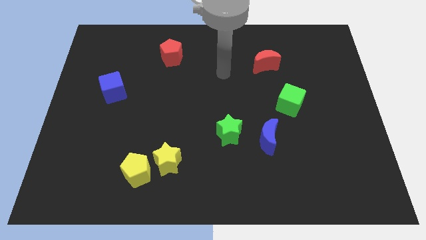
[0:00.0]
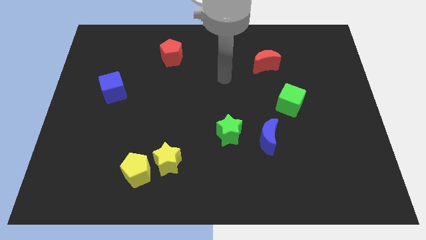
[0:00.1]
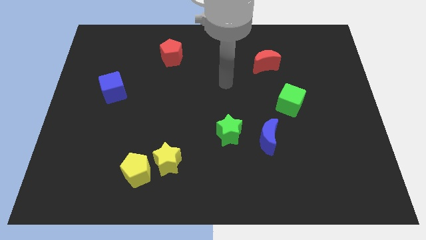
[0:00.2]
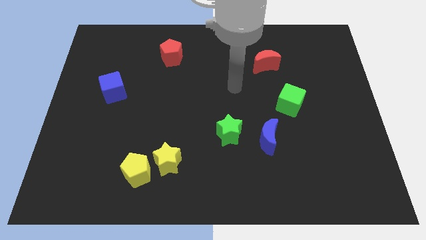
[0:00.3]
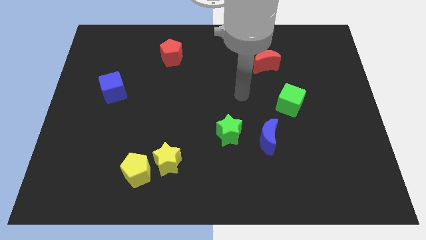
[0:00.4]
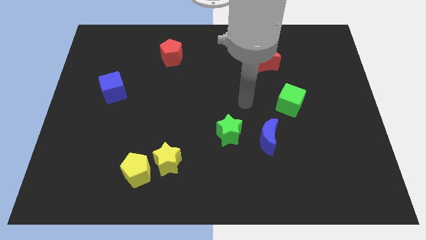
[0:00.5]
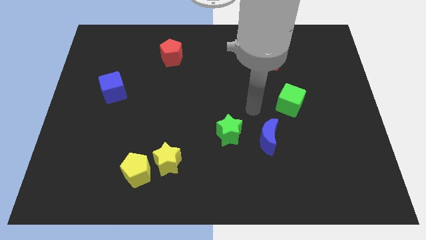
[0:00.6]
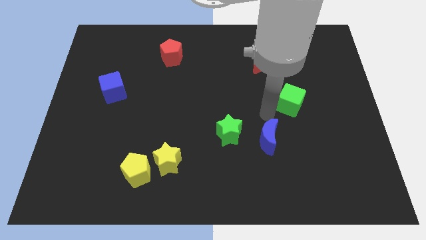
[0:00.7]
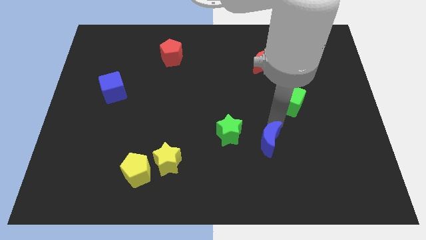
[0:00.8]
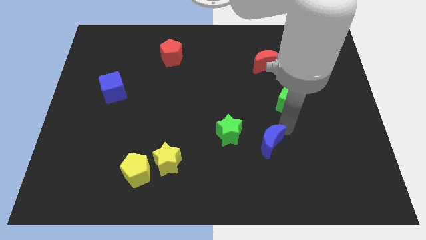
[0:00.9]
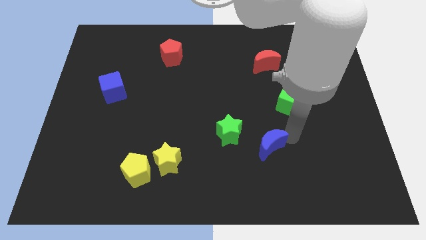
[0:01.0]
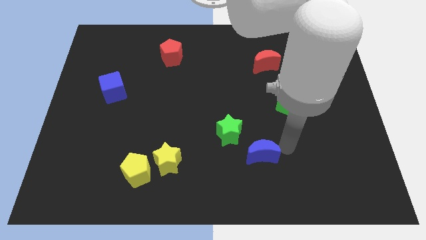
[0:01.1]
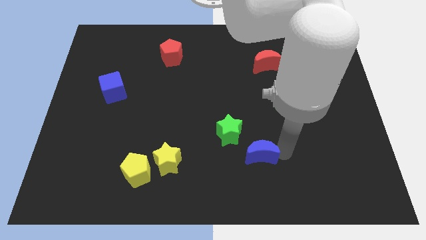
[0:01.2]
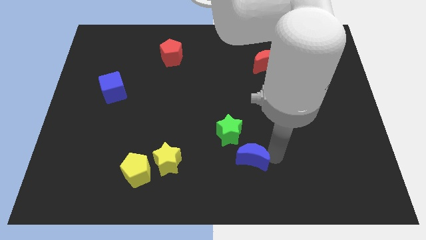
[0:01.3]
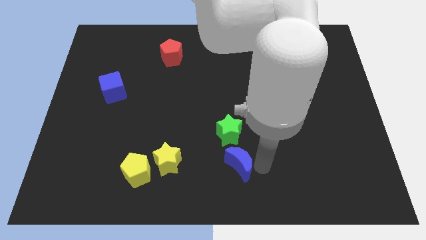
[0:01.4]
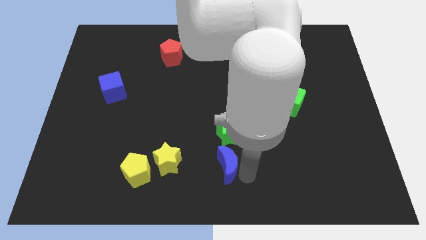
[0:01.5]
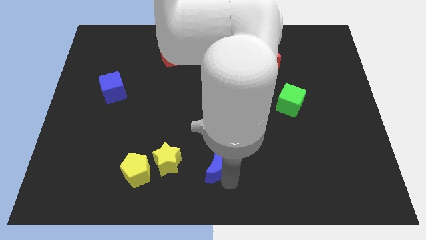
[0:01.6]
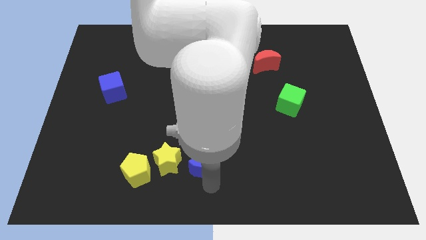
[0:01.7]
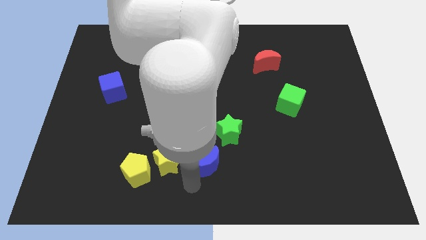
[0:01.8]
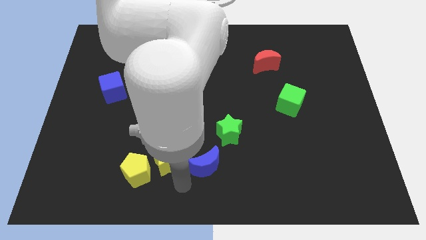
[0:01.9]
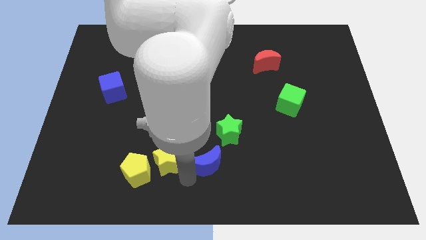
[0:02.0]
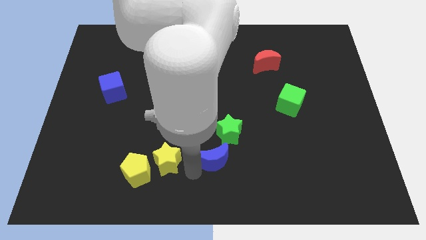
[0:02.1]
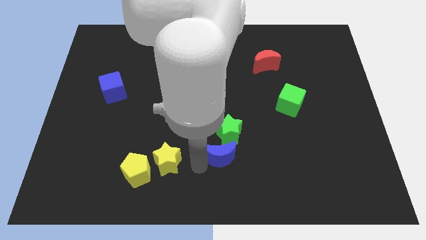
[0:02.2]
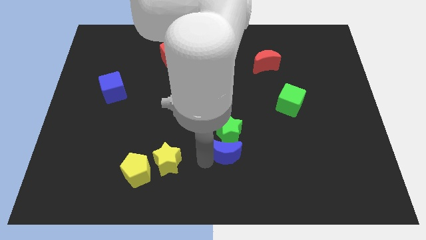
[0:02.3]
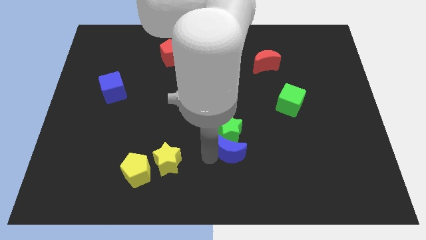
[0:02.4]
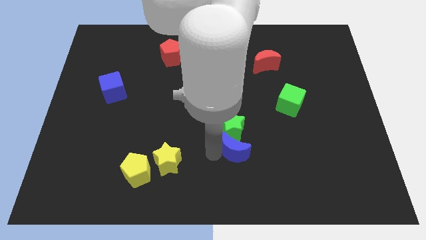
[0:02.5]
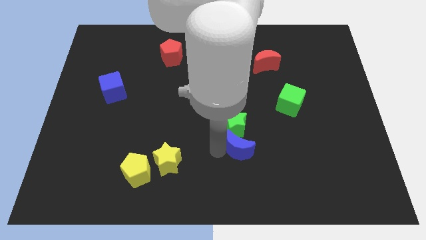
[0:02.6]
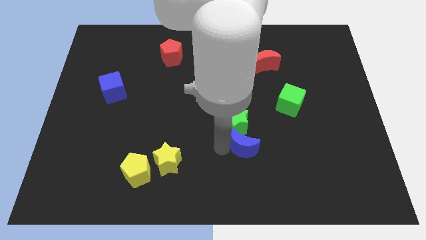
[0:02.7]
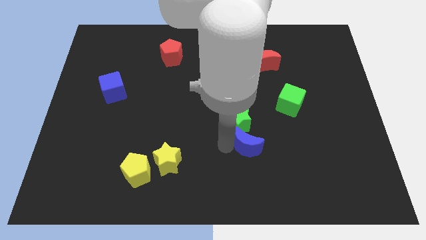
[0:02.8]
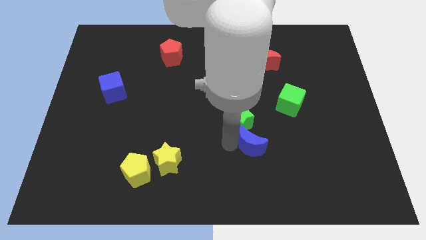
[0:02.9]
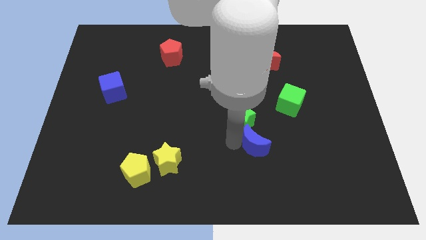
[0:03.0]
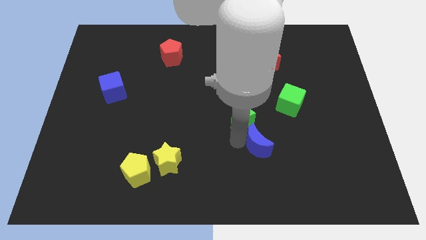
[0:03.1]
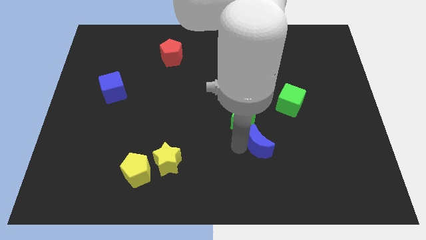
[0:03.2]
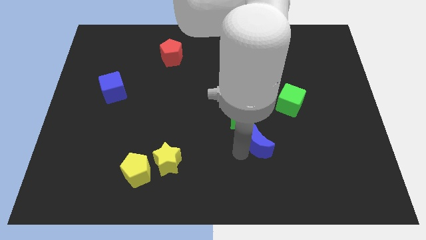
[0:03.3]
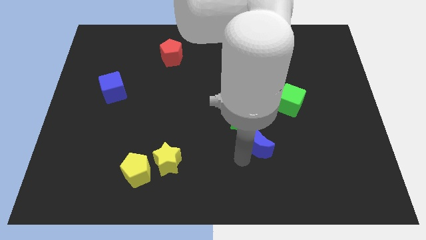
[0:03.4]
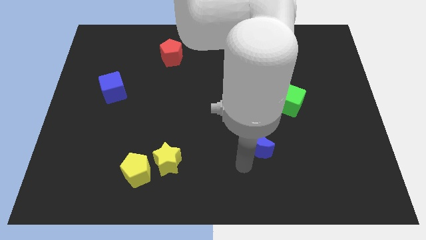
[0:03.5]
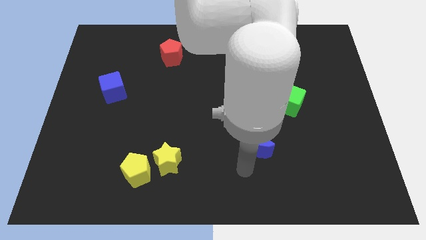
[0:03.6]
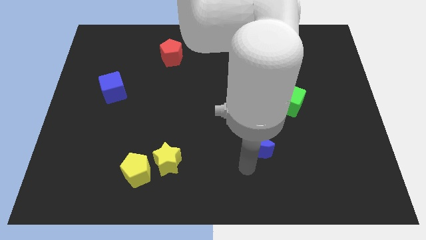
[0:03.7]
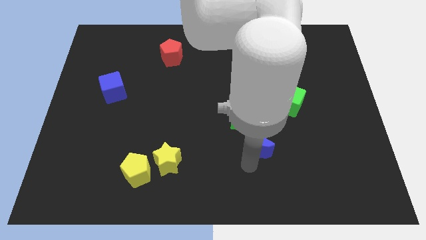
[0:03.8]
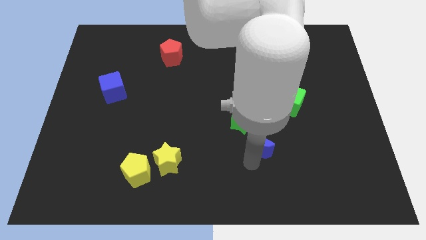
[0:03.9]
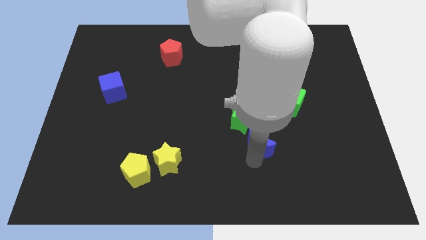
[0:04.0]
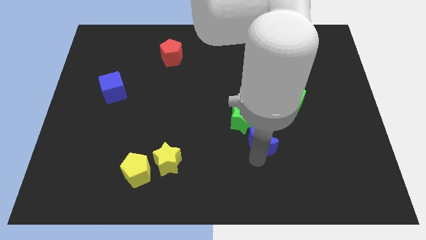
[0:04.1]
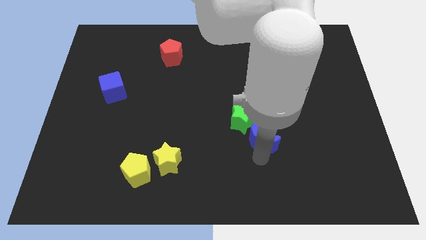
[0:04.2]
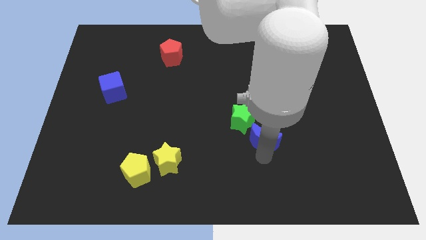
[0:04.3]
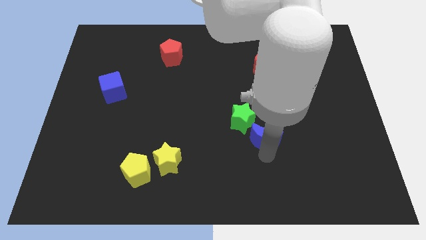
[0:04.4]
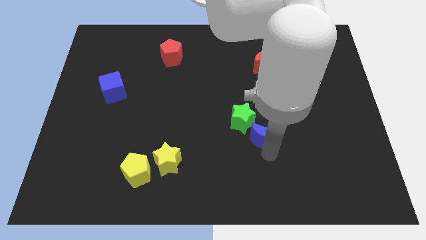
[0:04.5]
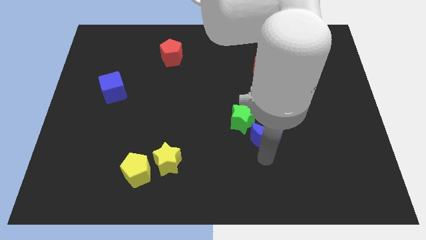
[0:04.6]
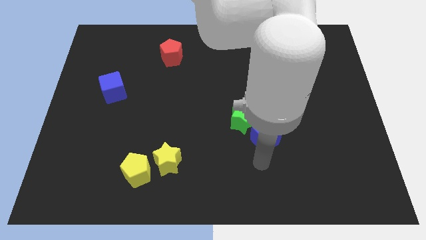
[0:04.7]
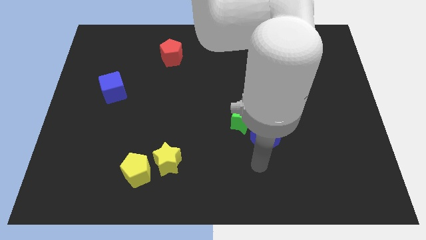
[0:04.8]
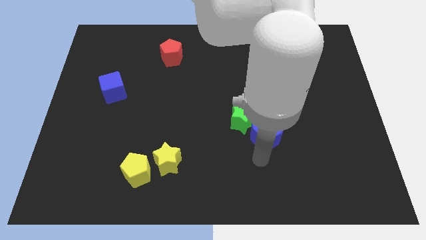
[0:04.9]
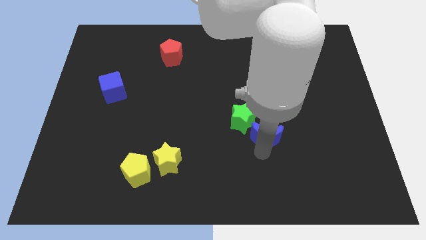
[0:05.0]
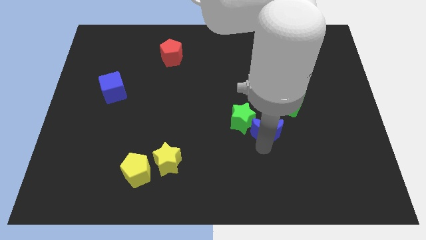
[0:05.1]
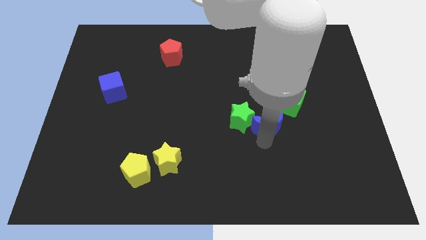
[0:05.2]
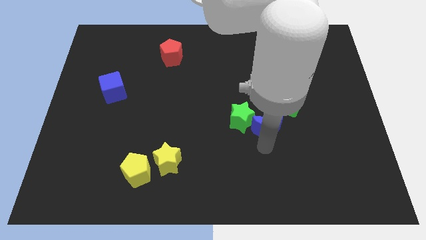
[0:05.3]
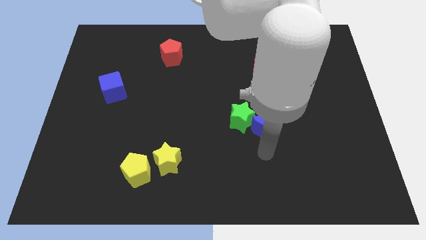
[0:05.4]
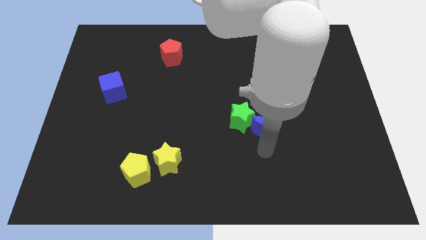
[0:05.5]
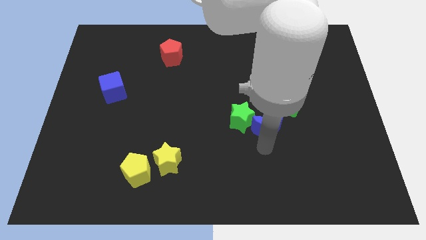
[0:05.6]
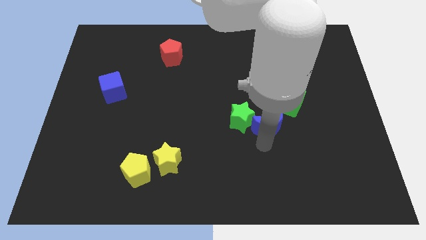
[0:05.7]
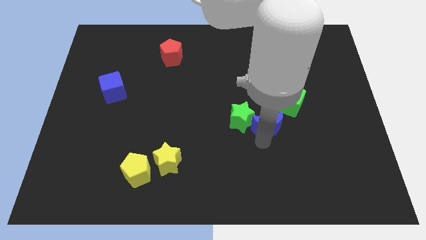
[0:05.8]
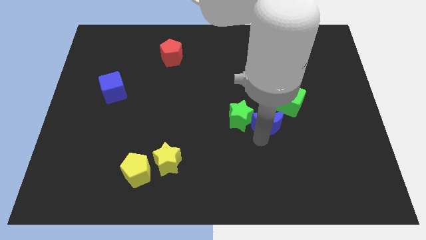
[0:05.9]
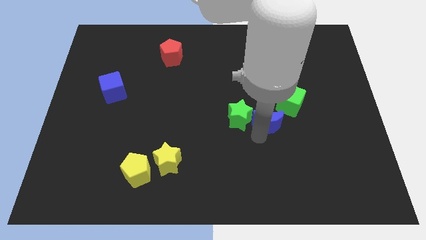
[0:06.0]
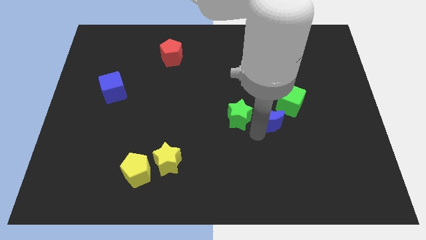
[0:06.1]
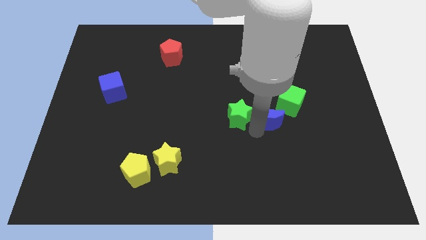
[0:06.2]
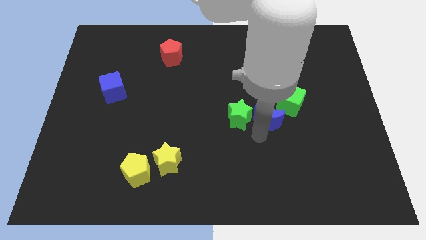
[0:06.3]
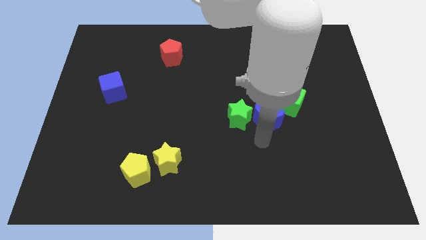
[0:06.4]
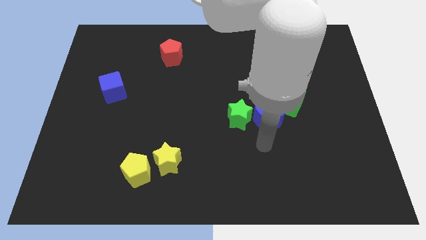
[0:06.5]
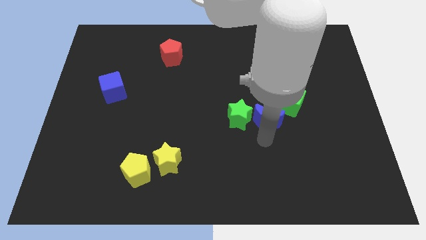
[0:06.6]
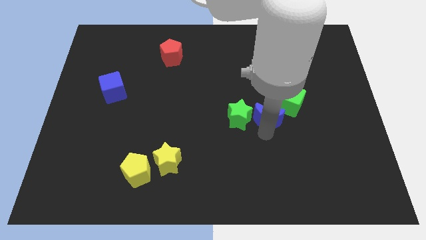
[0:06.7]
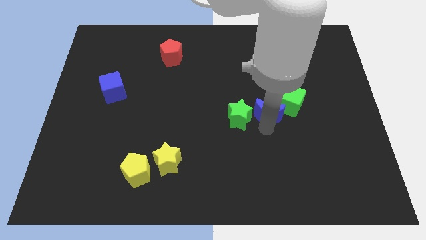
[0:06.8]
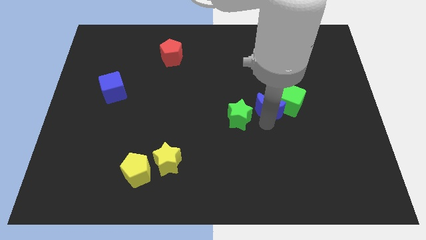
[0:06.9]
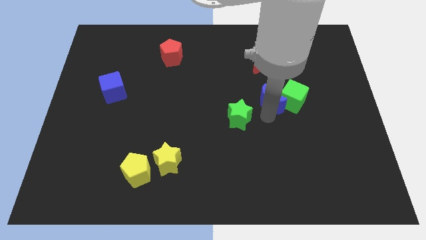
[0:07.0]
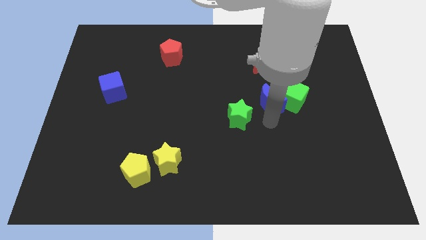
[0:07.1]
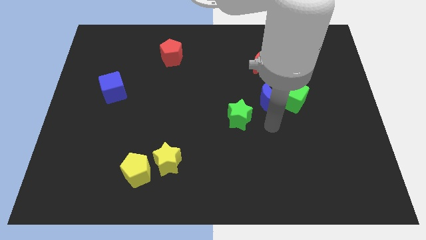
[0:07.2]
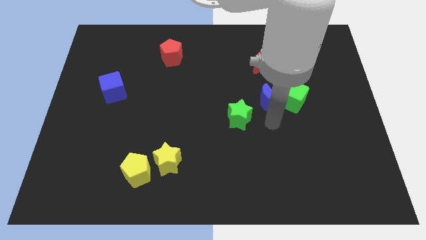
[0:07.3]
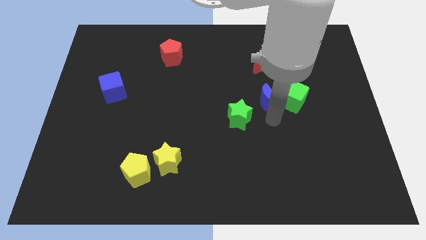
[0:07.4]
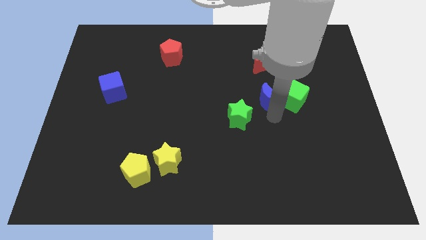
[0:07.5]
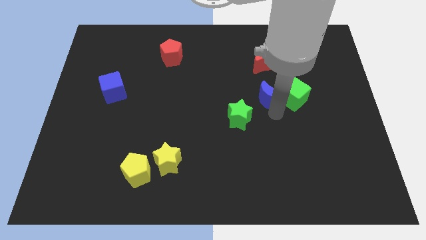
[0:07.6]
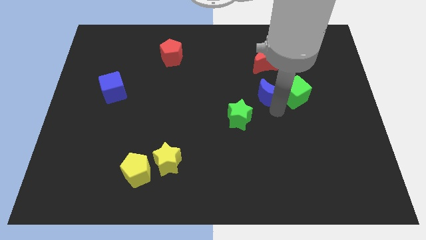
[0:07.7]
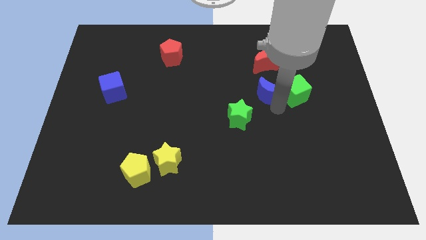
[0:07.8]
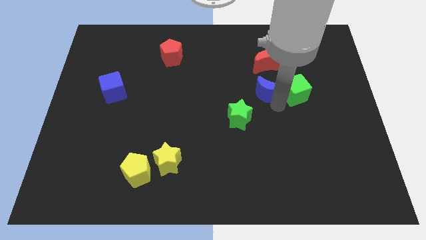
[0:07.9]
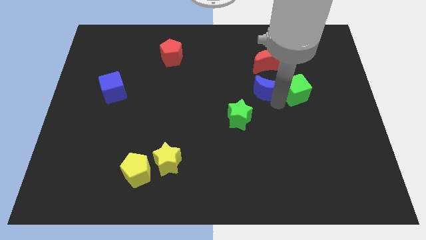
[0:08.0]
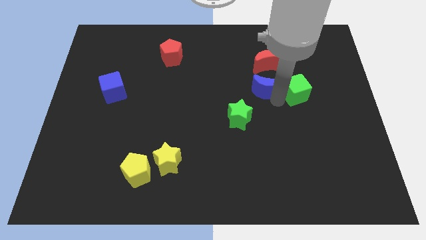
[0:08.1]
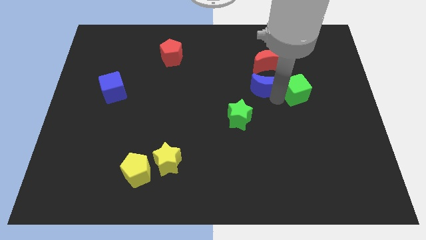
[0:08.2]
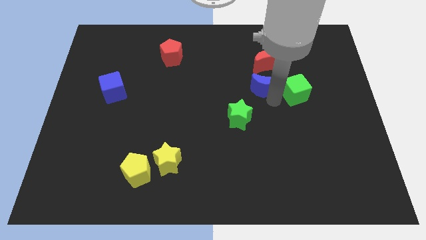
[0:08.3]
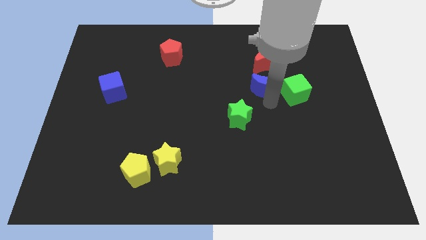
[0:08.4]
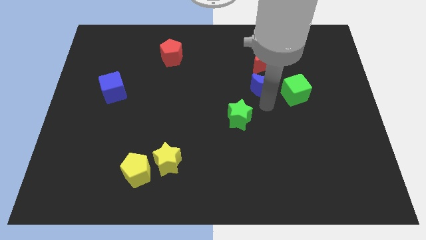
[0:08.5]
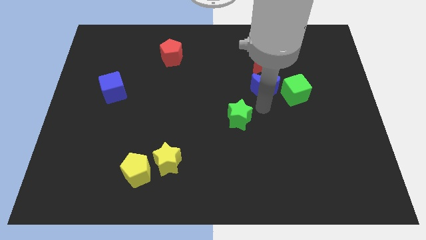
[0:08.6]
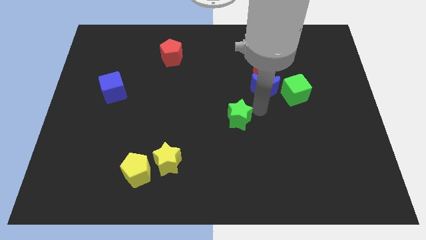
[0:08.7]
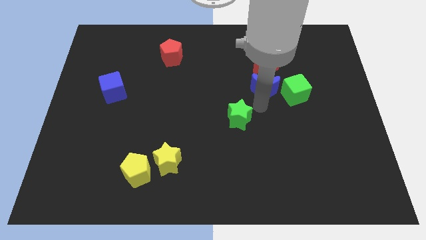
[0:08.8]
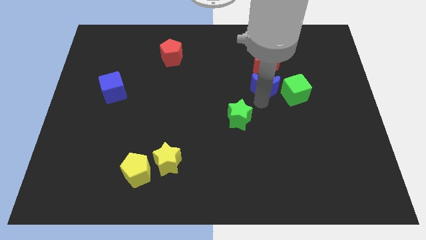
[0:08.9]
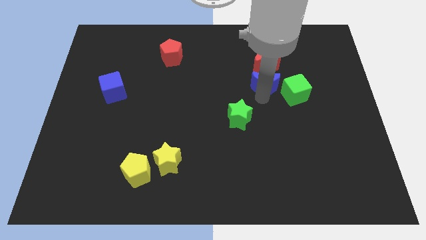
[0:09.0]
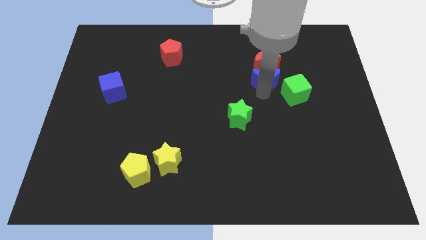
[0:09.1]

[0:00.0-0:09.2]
slide the blue moon to the red moon
